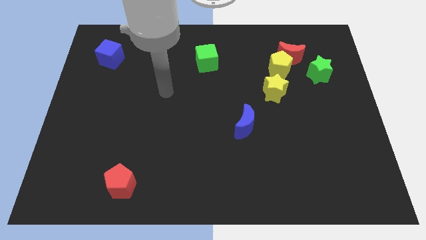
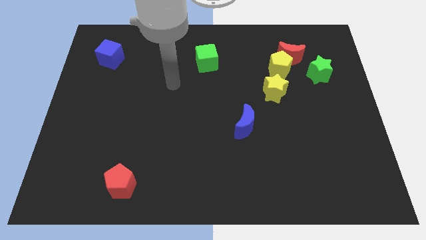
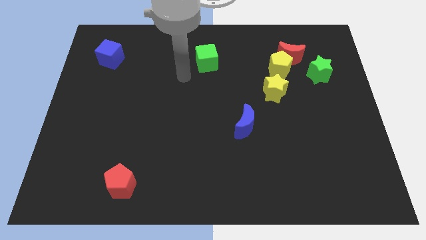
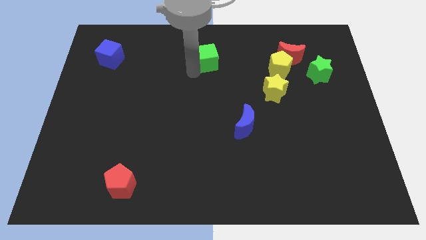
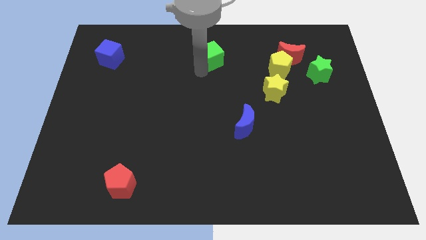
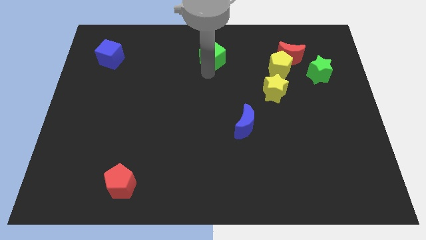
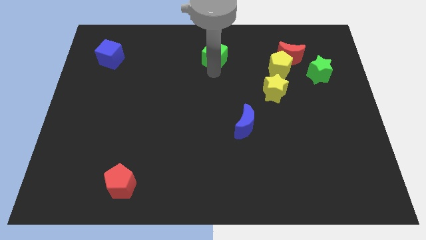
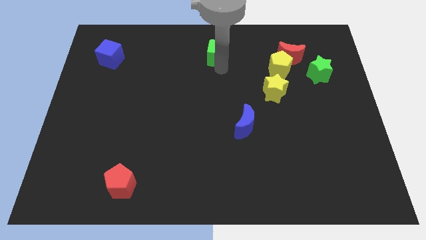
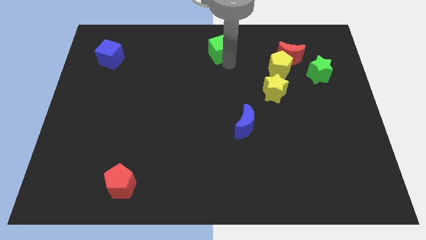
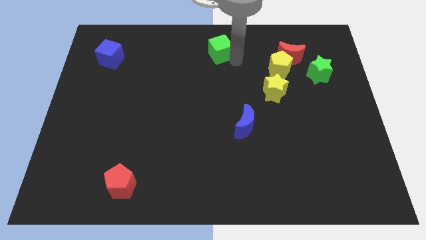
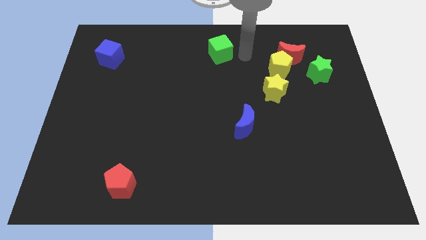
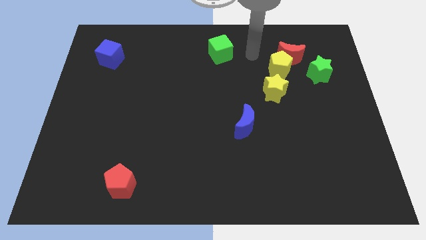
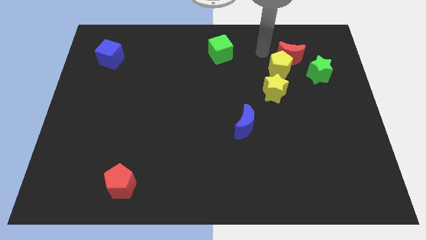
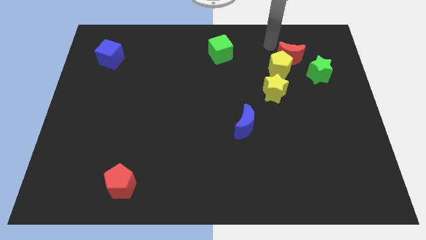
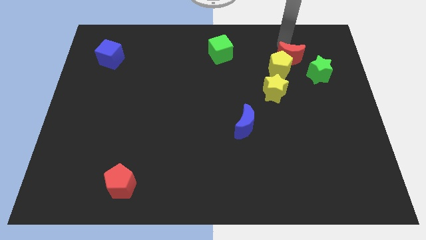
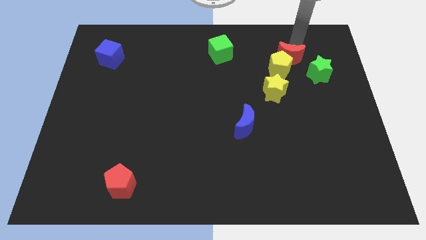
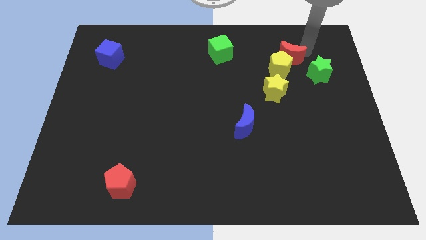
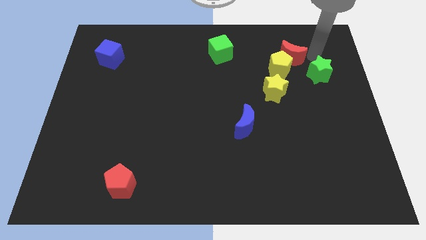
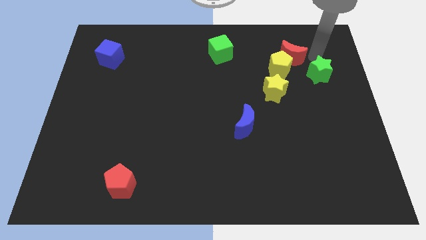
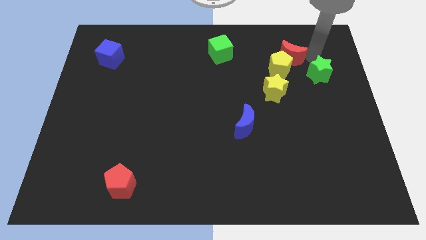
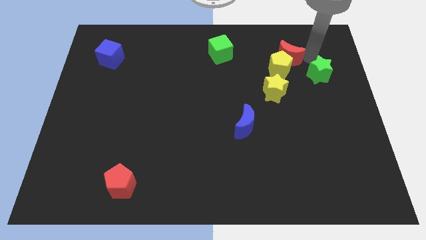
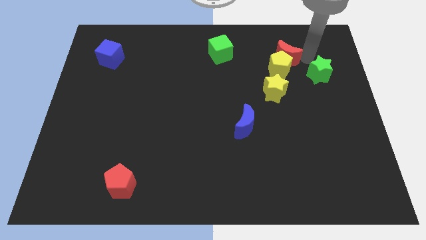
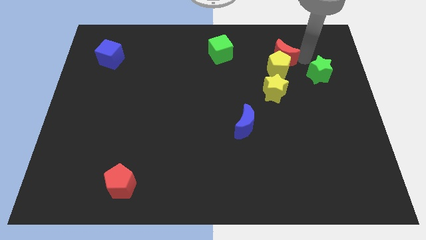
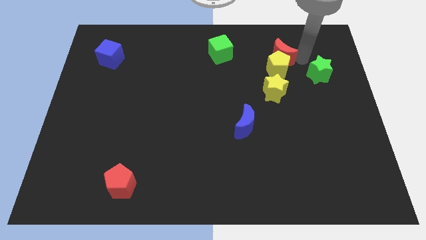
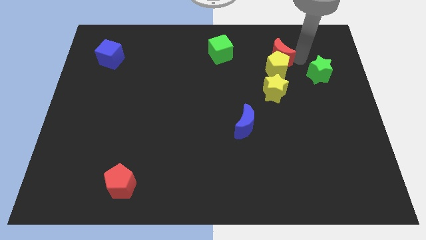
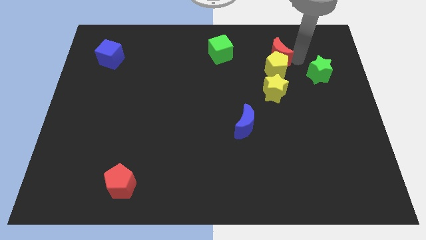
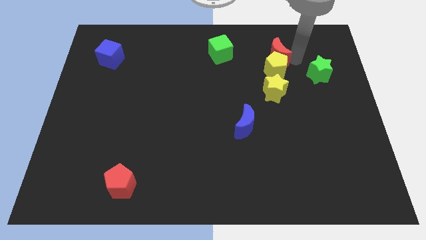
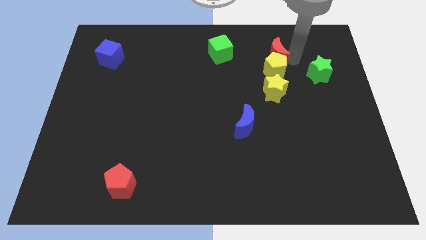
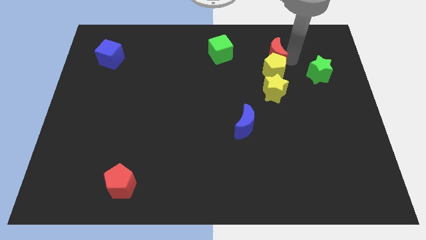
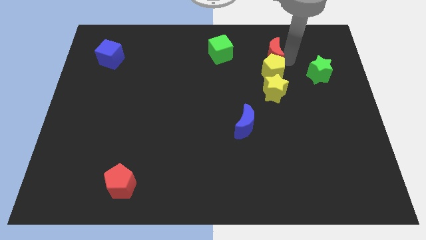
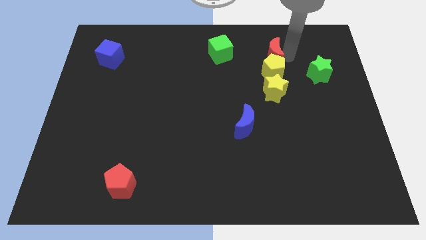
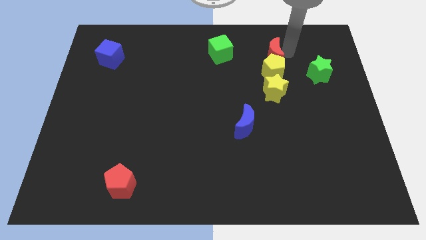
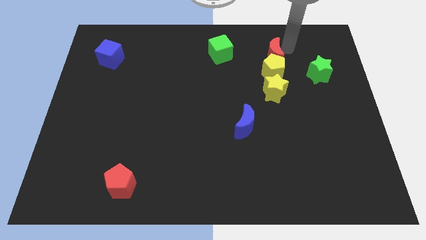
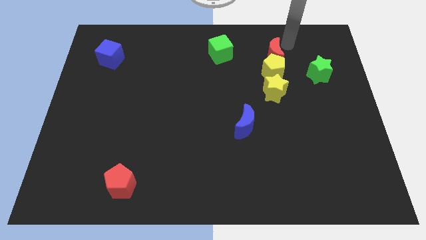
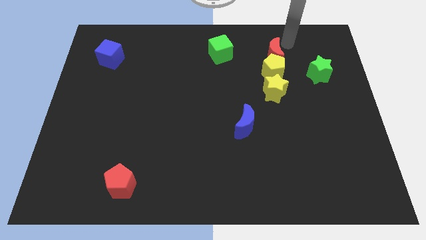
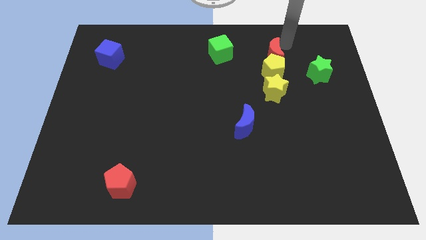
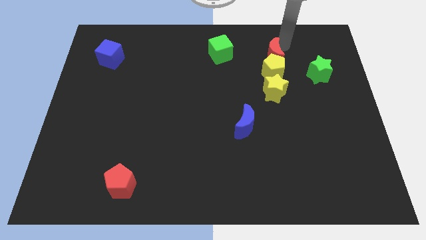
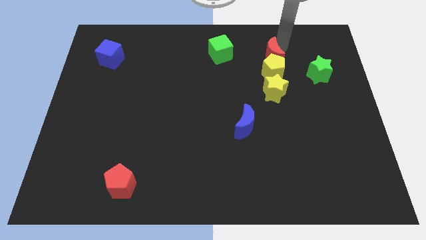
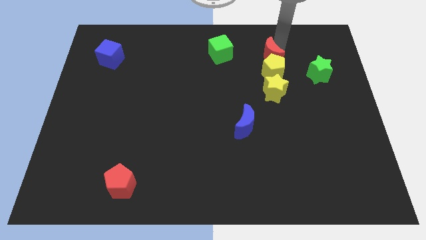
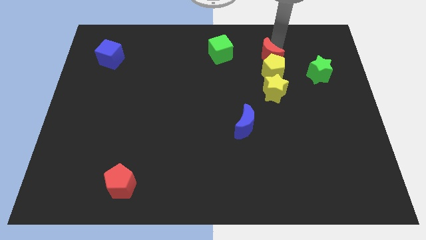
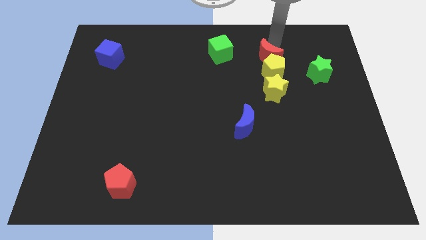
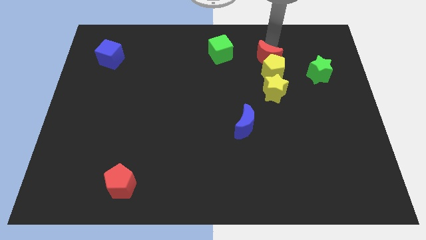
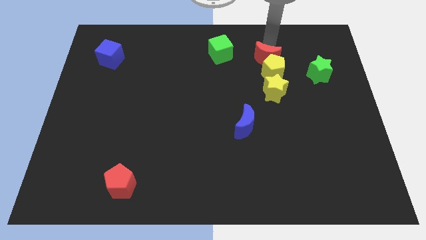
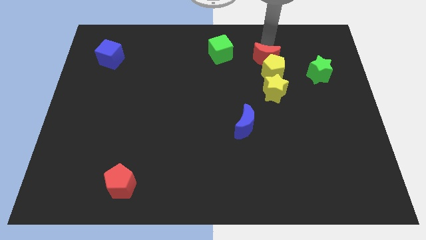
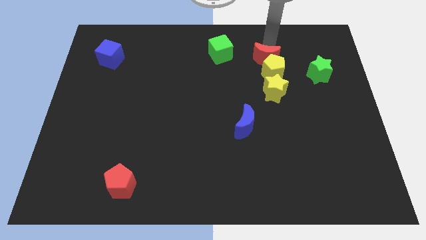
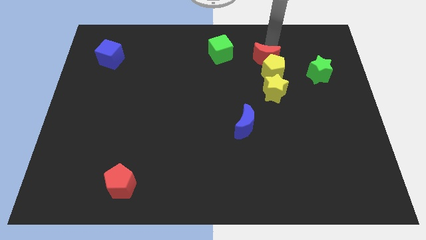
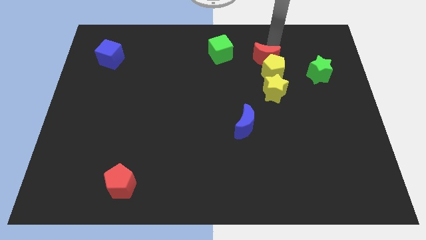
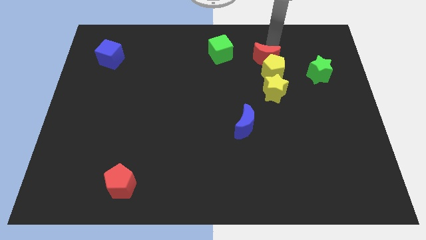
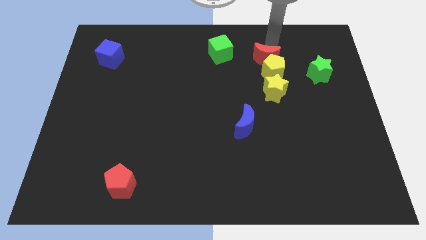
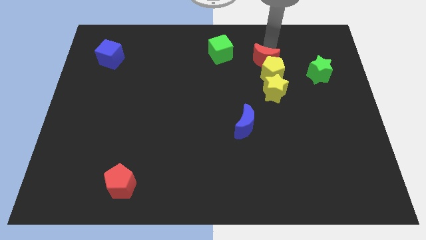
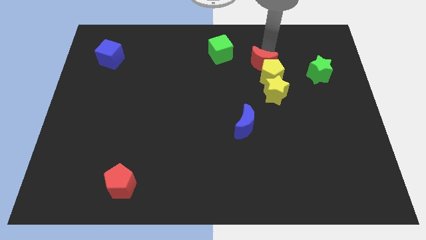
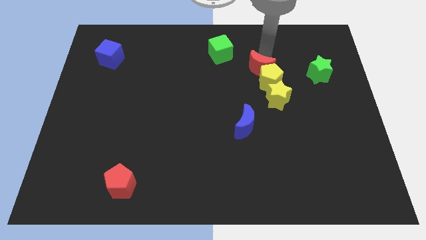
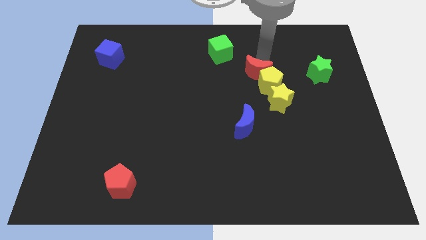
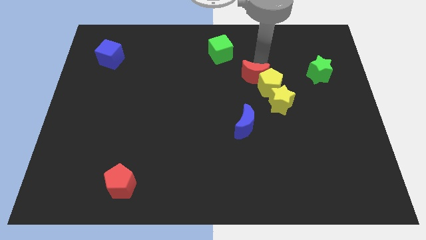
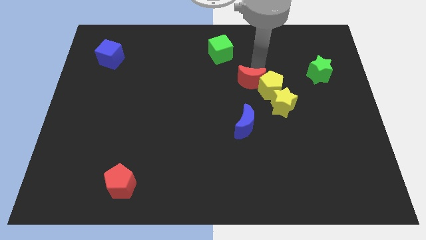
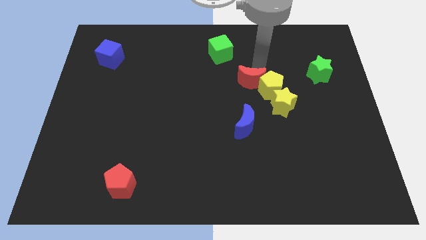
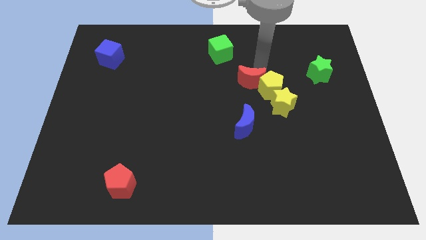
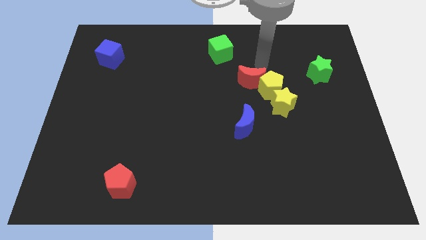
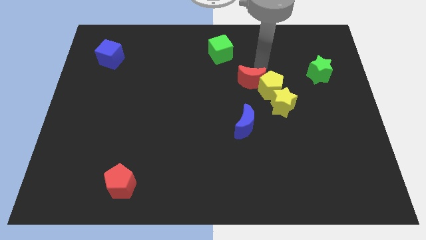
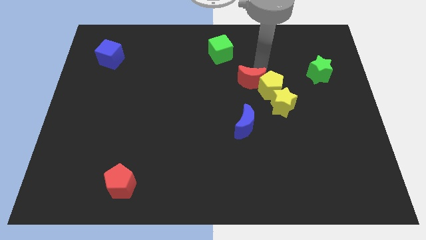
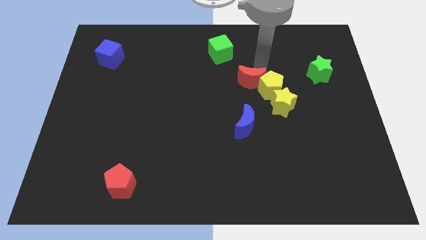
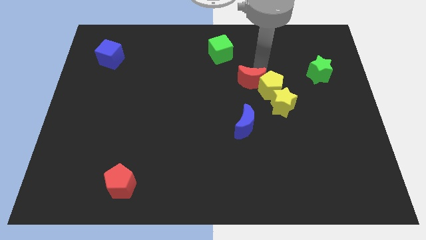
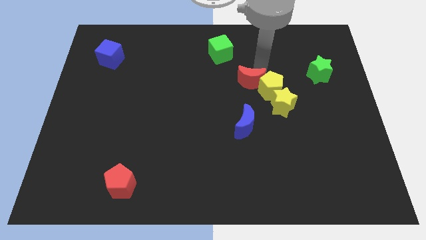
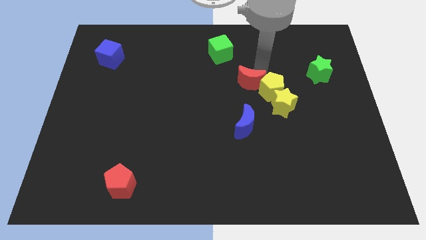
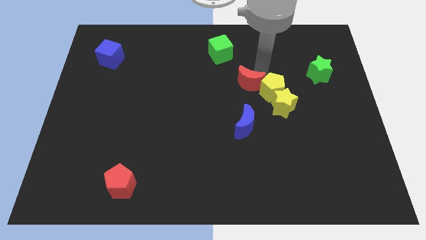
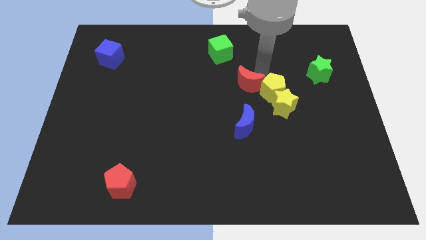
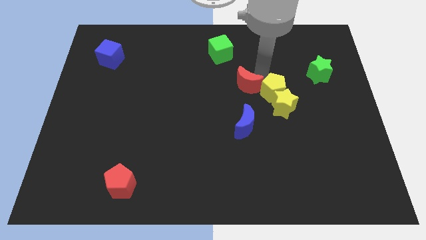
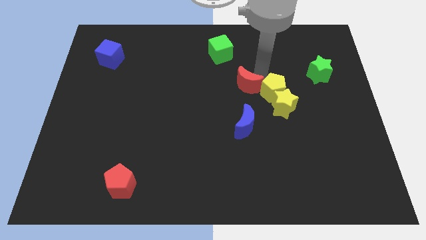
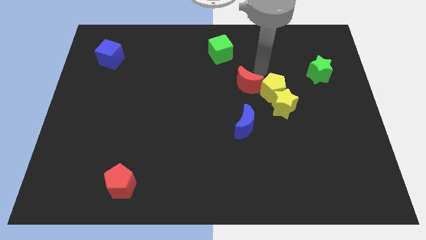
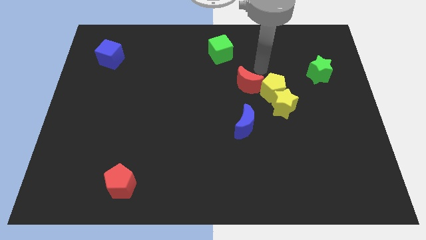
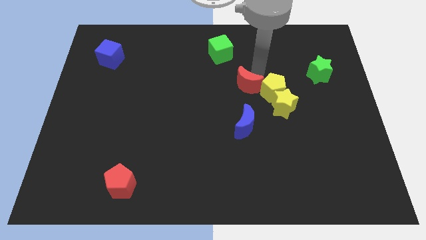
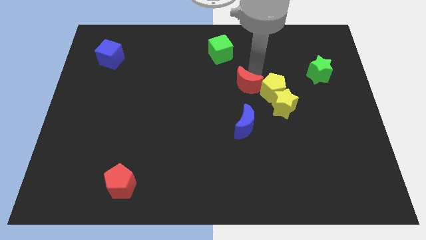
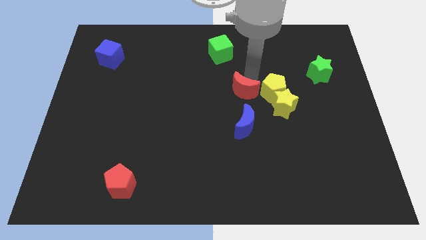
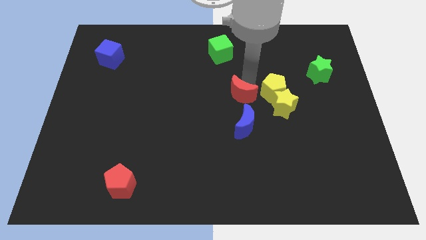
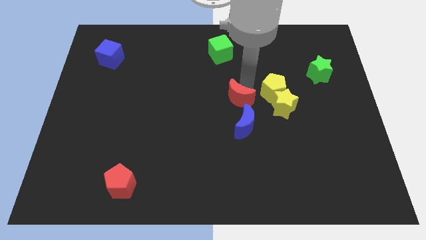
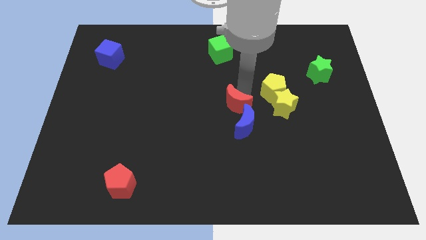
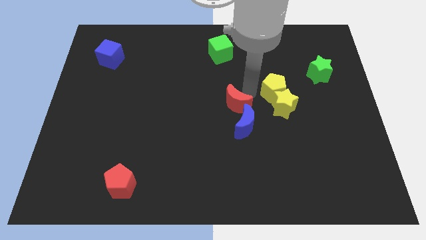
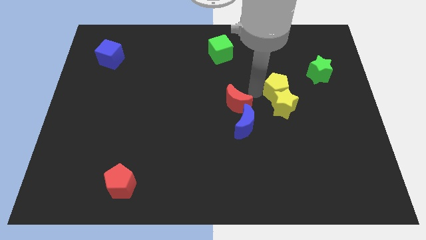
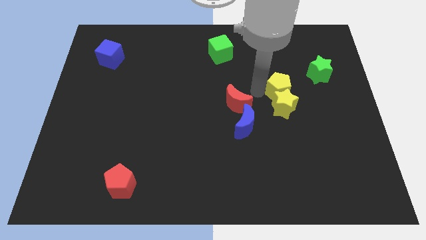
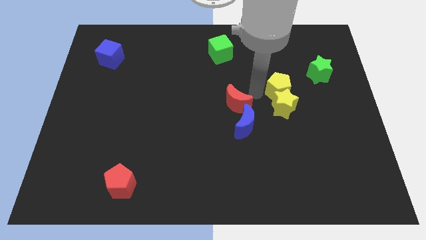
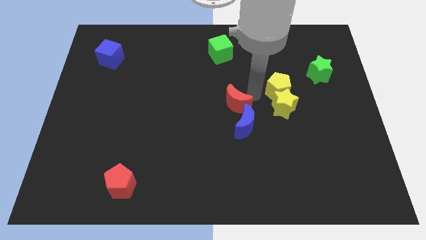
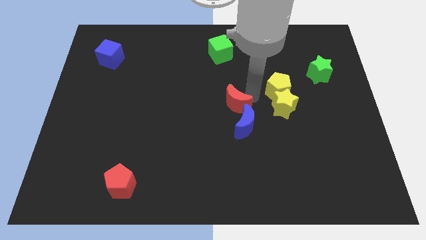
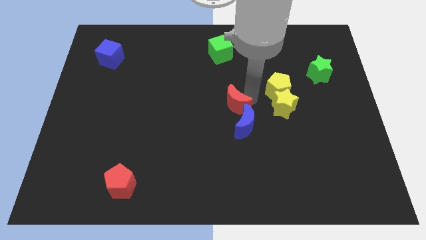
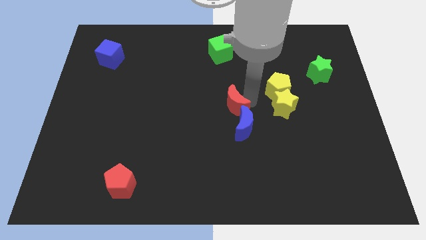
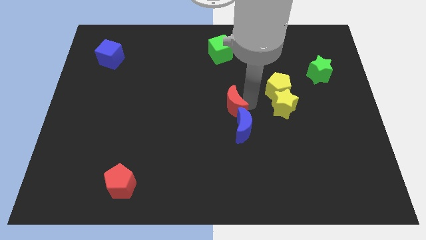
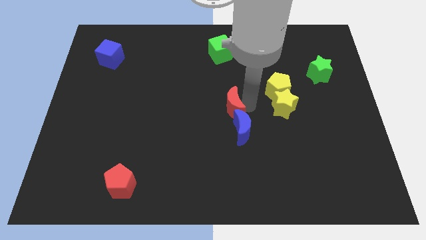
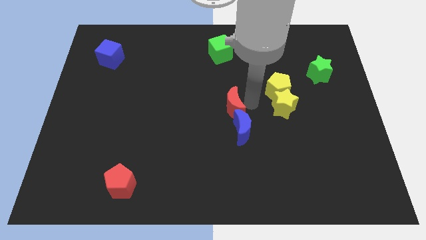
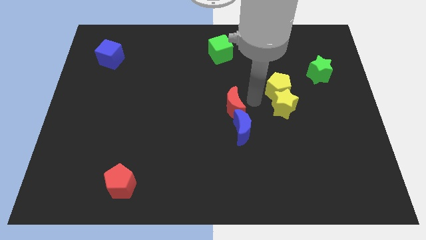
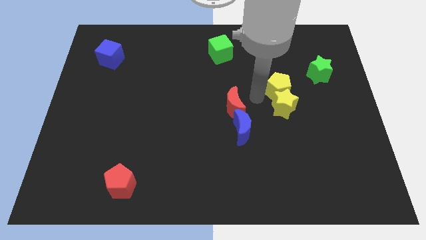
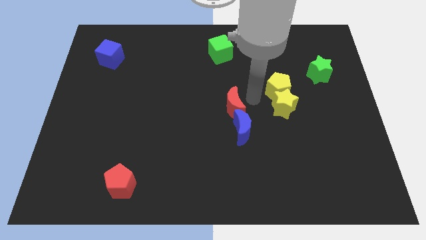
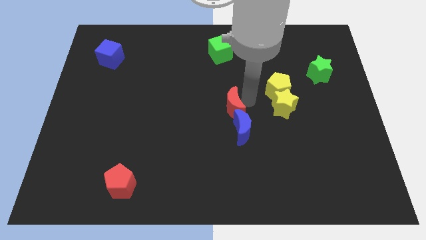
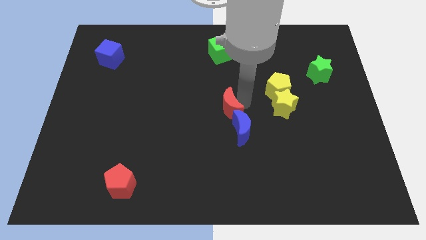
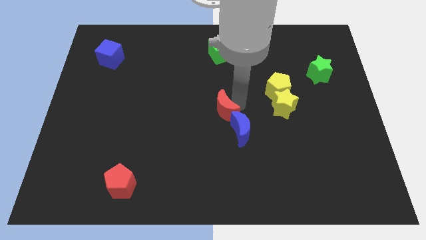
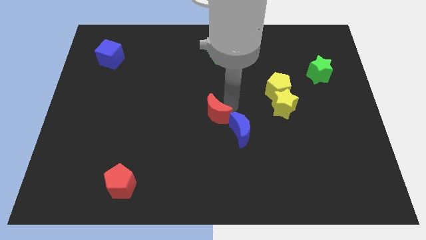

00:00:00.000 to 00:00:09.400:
push the red moon left of the blue moon
